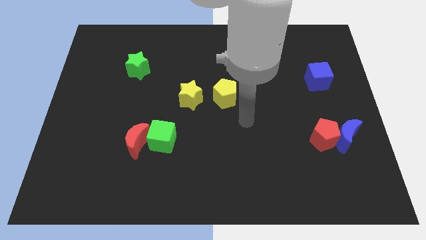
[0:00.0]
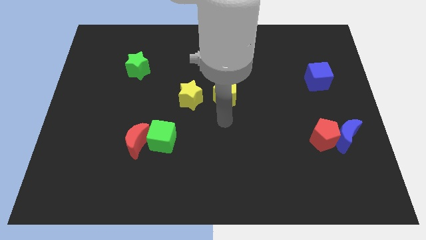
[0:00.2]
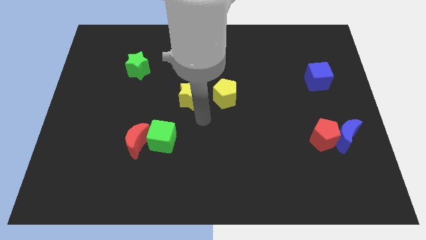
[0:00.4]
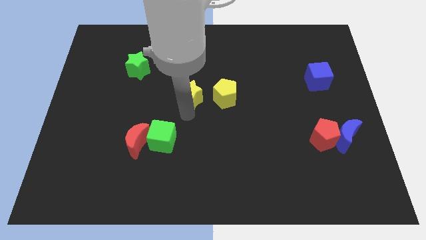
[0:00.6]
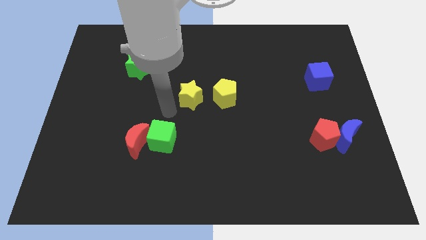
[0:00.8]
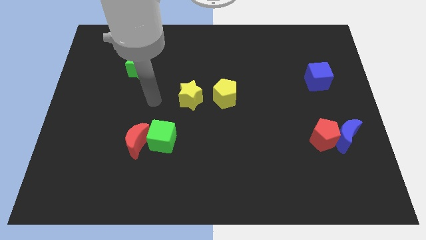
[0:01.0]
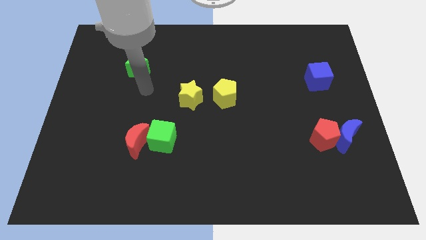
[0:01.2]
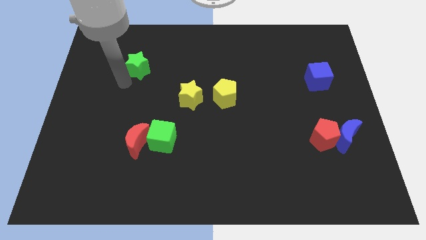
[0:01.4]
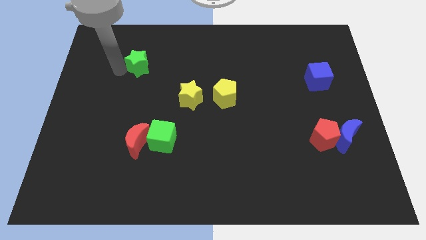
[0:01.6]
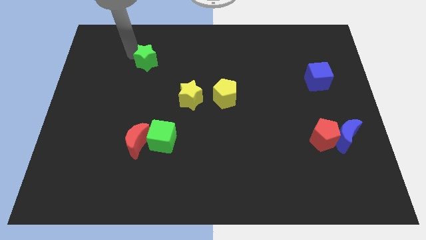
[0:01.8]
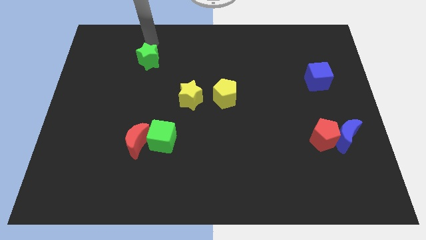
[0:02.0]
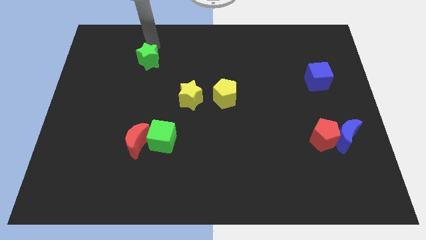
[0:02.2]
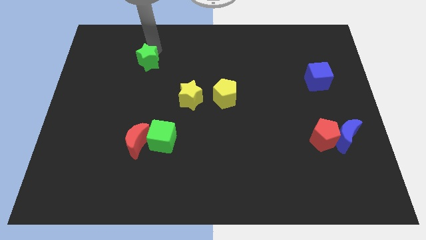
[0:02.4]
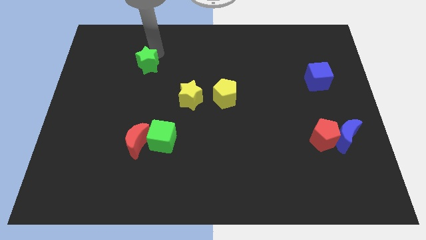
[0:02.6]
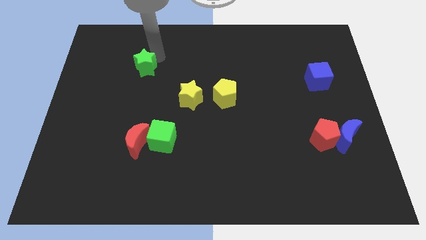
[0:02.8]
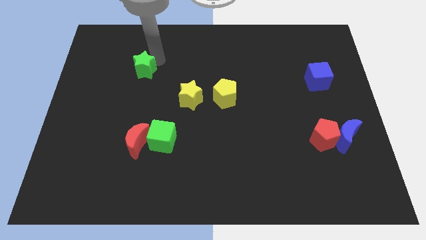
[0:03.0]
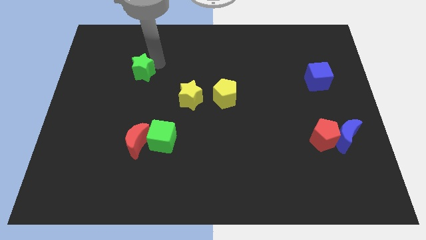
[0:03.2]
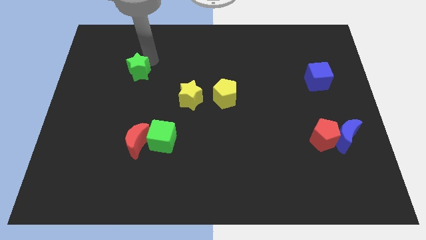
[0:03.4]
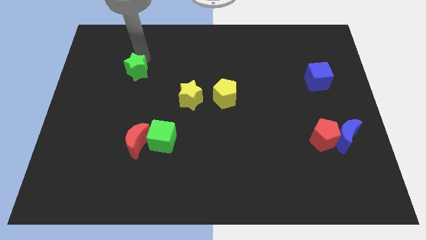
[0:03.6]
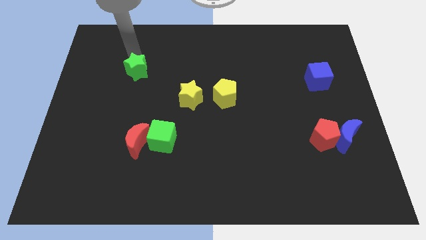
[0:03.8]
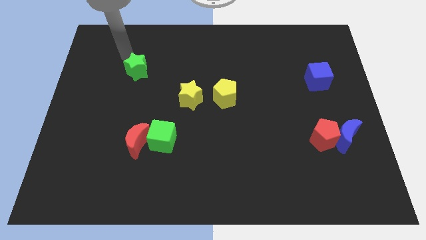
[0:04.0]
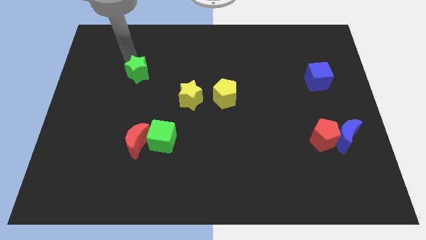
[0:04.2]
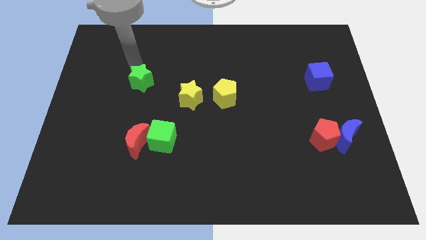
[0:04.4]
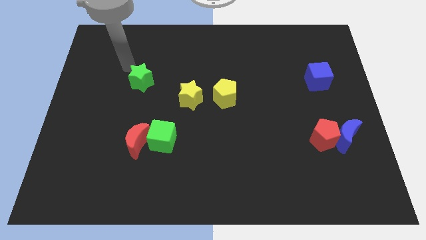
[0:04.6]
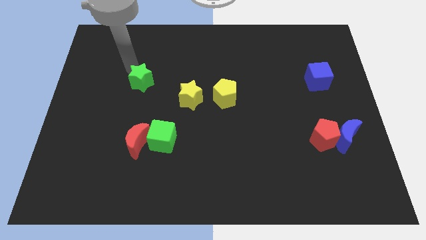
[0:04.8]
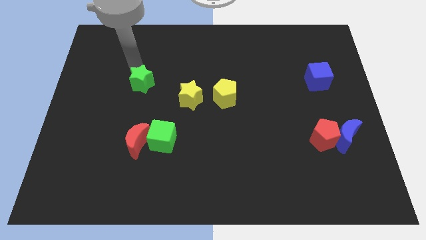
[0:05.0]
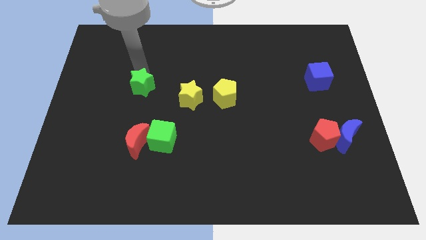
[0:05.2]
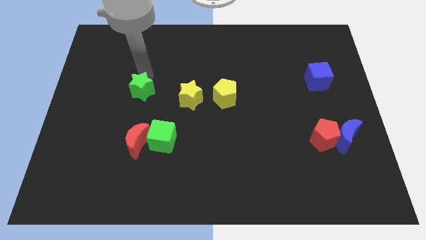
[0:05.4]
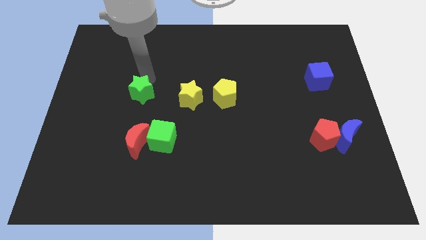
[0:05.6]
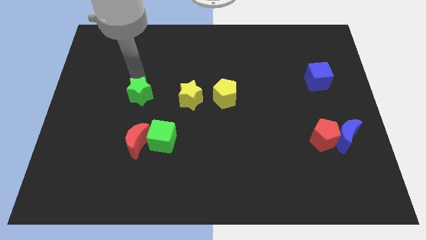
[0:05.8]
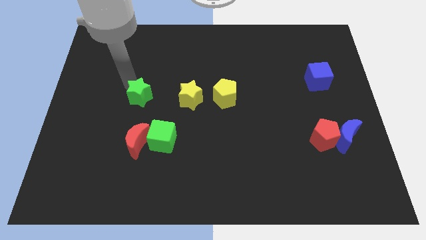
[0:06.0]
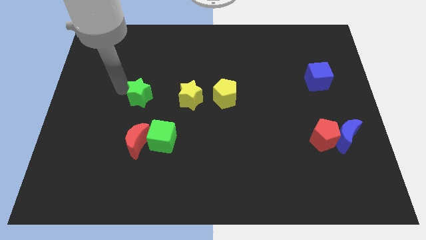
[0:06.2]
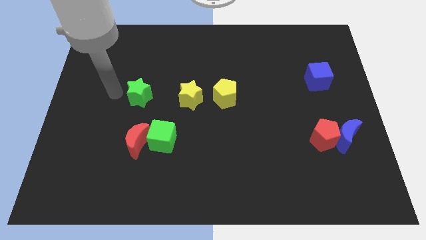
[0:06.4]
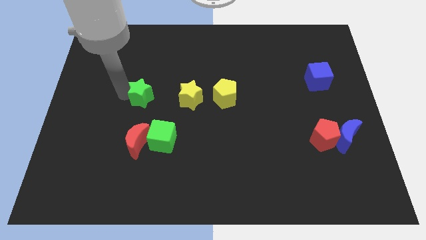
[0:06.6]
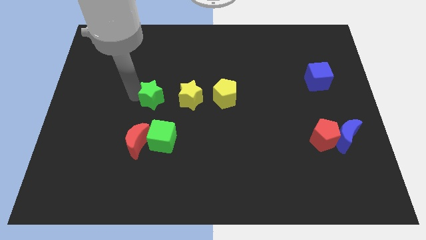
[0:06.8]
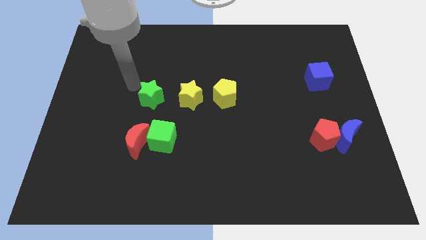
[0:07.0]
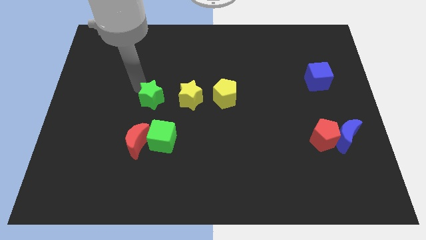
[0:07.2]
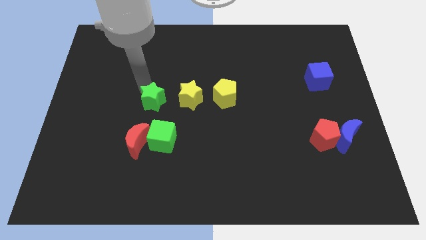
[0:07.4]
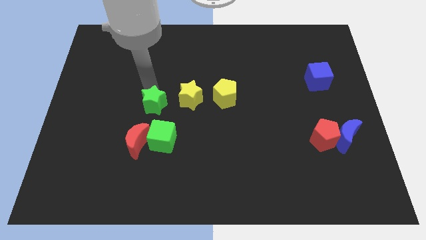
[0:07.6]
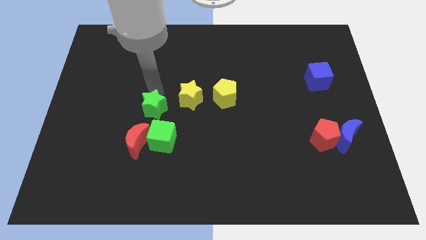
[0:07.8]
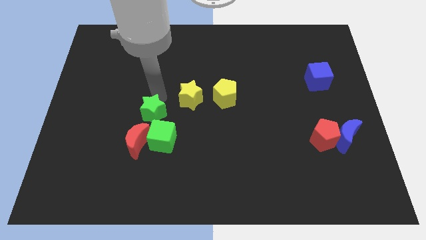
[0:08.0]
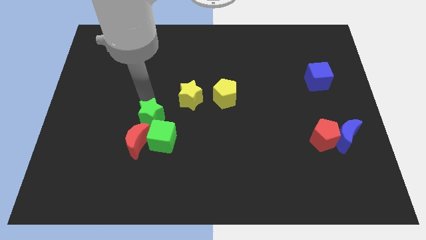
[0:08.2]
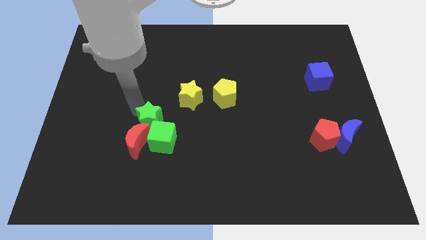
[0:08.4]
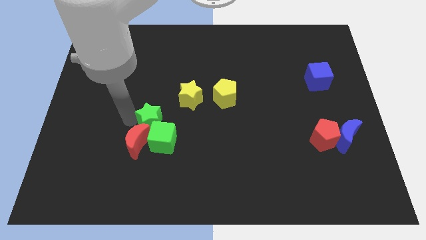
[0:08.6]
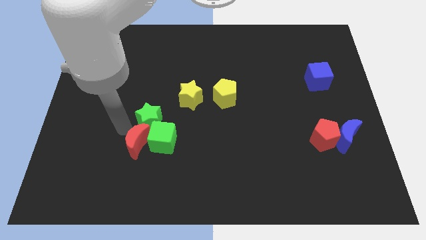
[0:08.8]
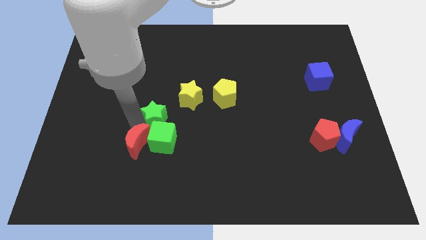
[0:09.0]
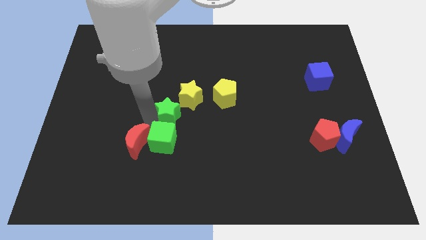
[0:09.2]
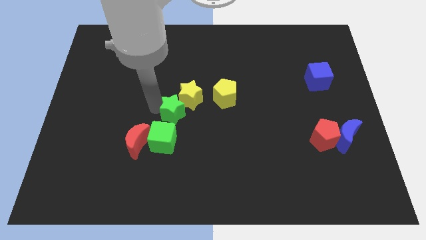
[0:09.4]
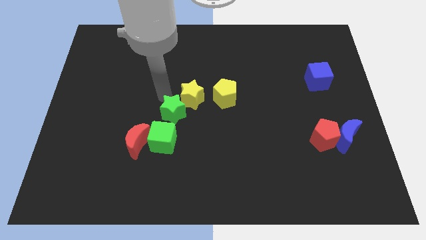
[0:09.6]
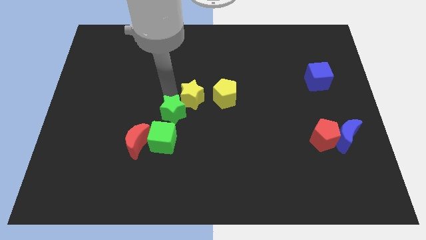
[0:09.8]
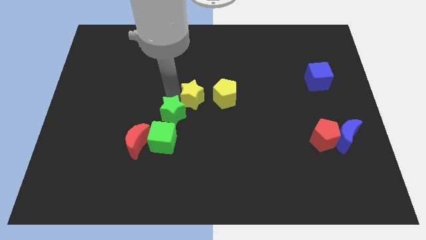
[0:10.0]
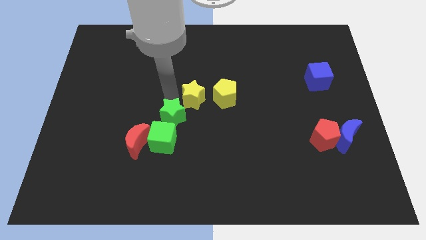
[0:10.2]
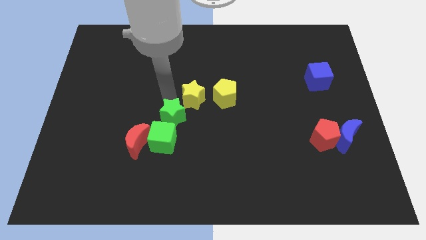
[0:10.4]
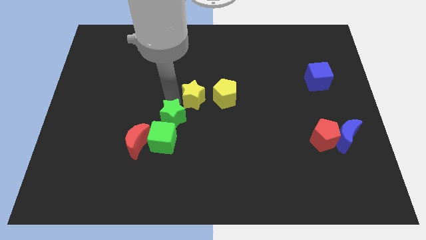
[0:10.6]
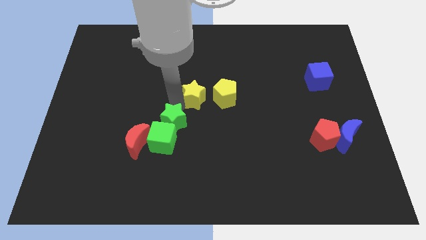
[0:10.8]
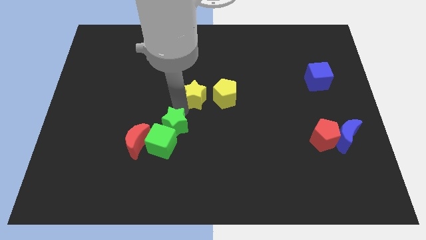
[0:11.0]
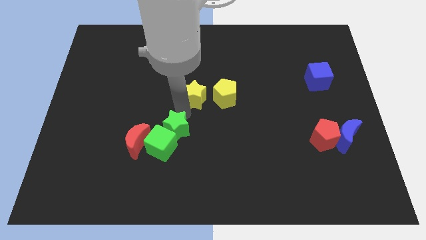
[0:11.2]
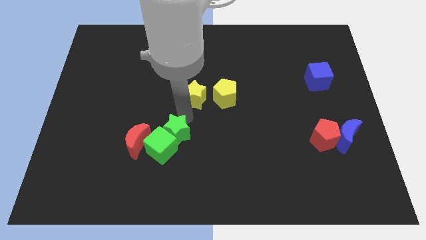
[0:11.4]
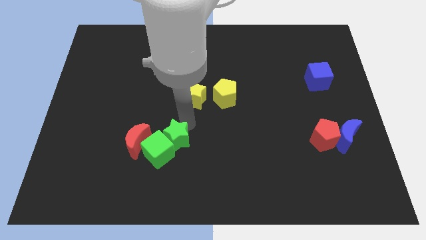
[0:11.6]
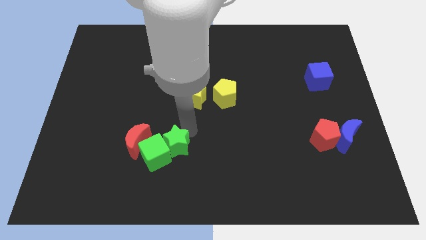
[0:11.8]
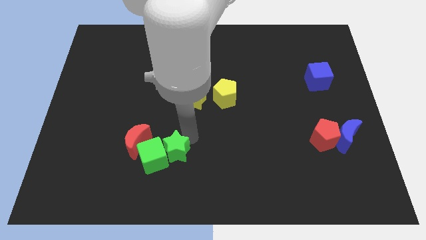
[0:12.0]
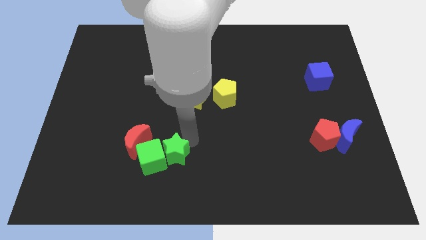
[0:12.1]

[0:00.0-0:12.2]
move the green star to the bottom right side of the green cube

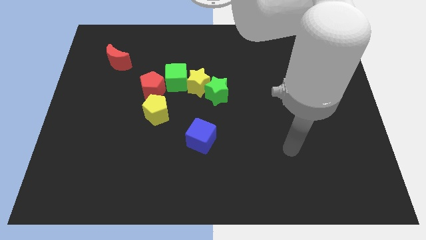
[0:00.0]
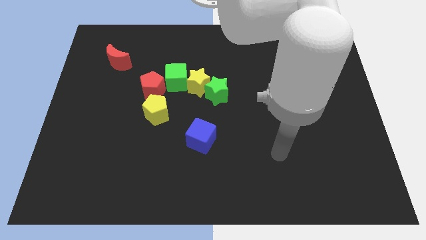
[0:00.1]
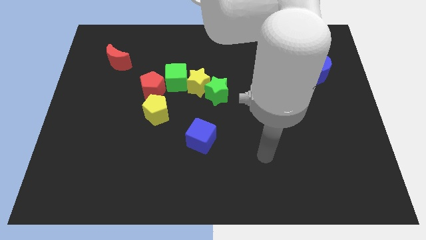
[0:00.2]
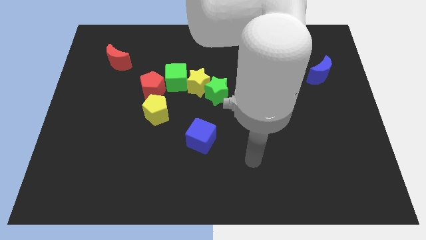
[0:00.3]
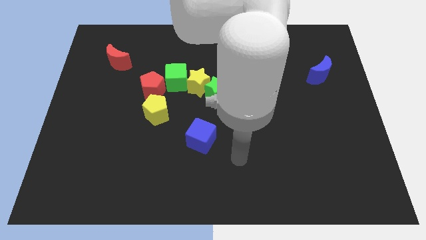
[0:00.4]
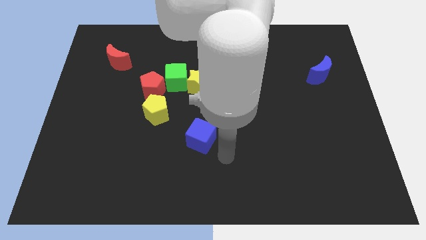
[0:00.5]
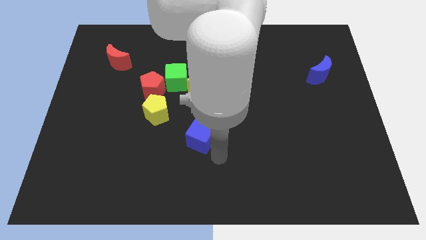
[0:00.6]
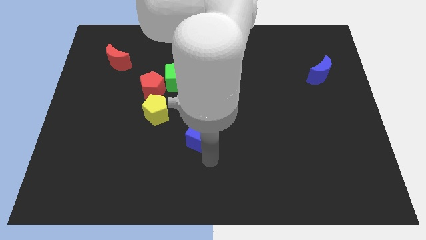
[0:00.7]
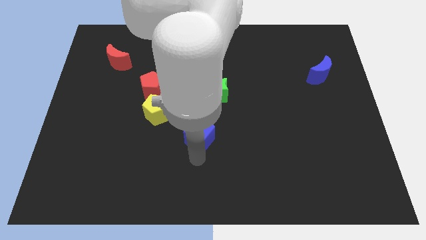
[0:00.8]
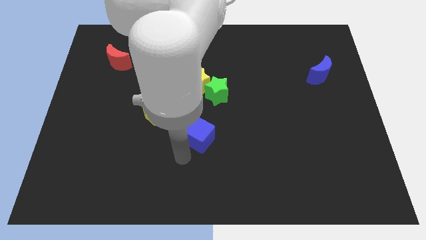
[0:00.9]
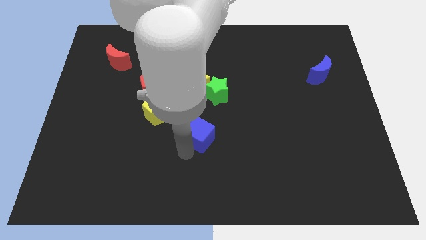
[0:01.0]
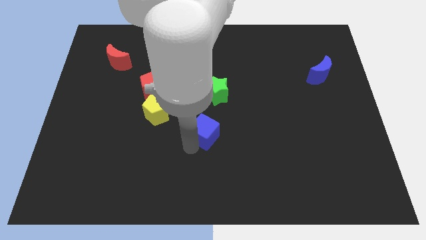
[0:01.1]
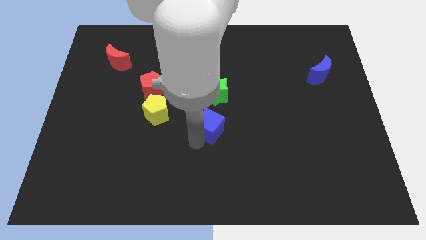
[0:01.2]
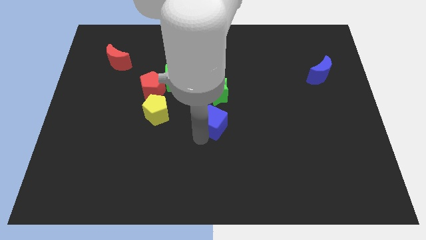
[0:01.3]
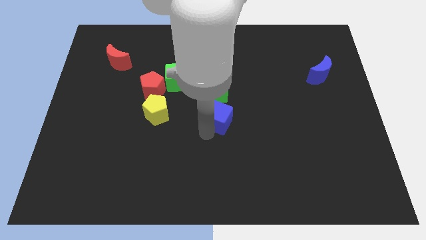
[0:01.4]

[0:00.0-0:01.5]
put the blue cube to the bottom right of the yellow star
